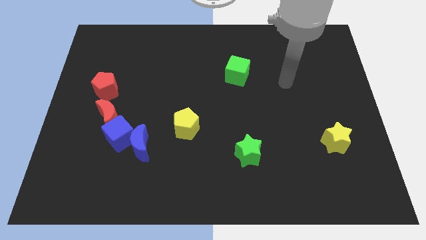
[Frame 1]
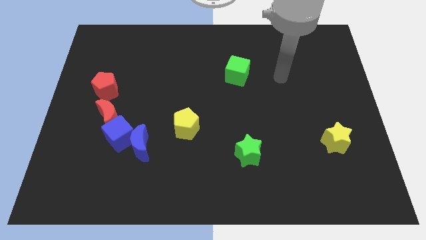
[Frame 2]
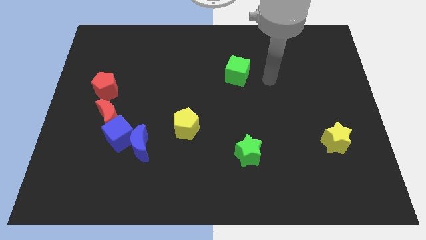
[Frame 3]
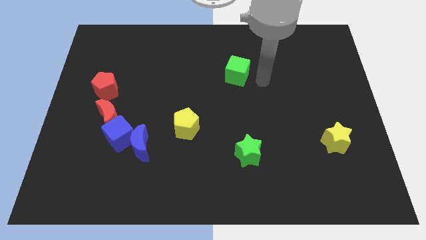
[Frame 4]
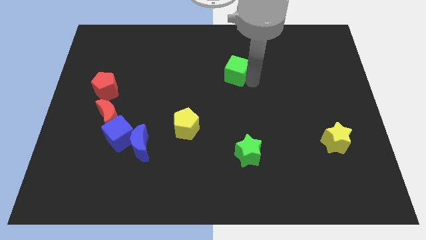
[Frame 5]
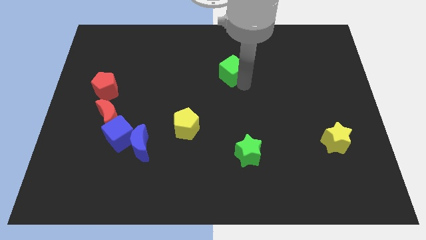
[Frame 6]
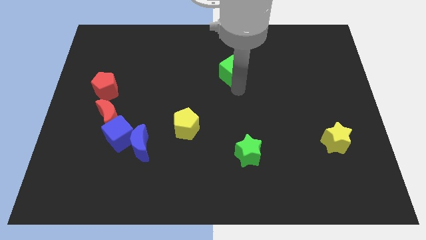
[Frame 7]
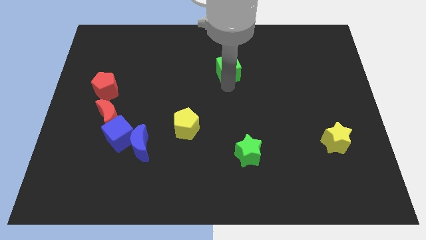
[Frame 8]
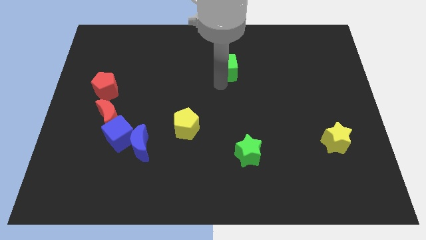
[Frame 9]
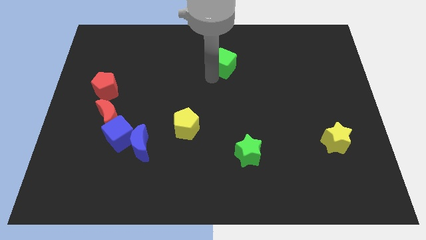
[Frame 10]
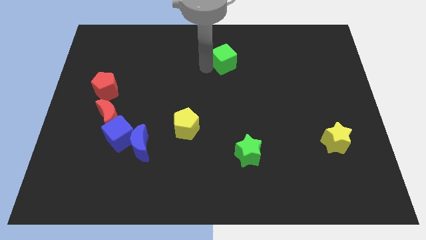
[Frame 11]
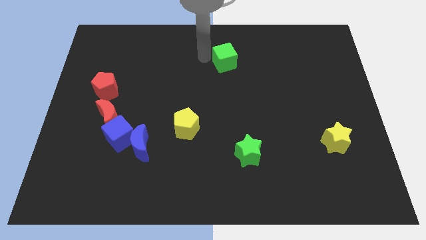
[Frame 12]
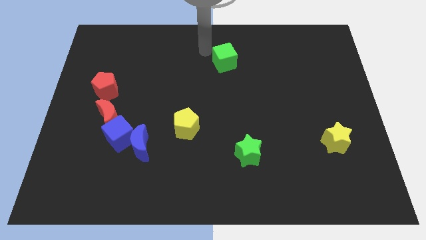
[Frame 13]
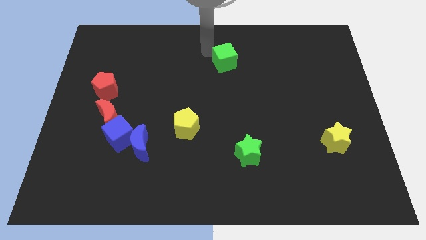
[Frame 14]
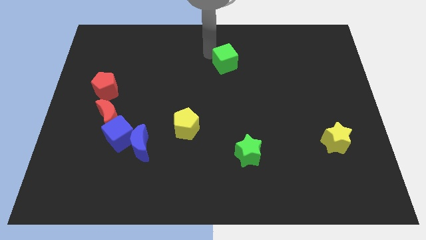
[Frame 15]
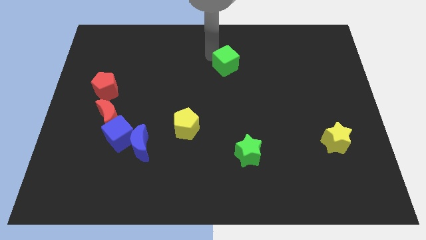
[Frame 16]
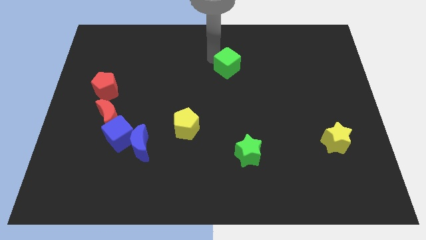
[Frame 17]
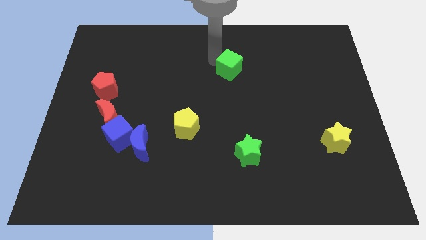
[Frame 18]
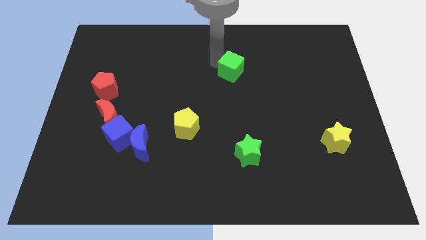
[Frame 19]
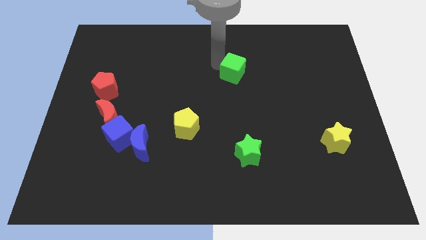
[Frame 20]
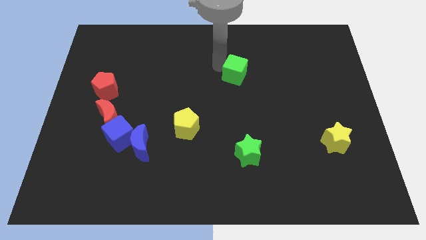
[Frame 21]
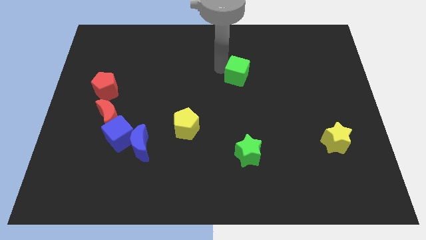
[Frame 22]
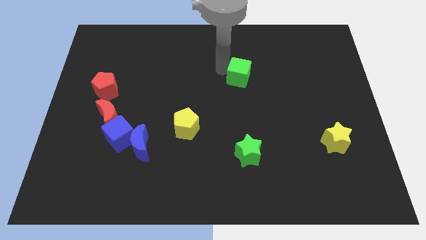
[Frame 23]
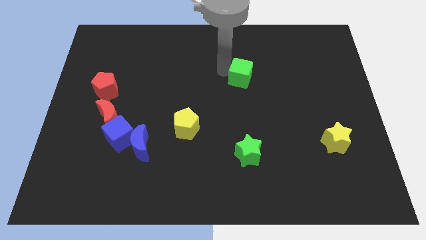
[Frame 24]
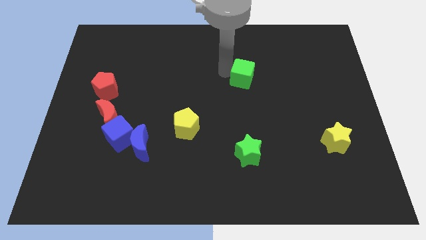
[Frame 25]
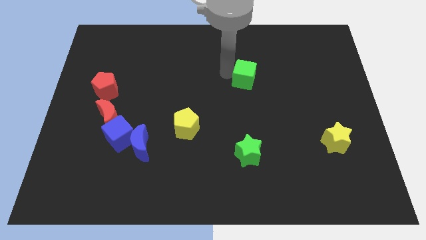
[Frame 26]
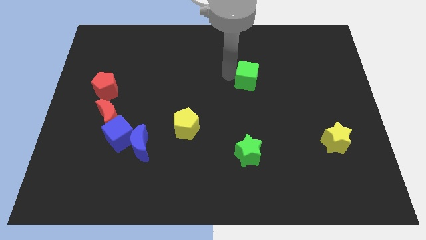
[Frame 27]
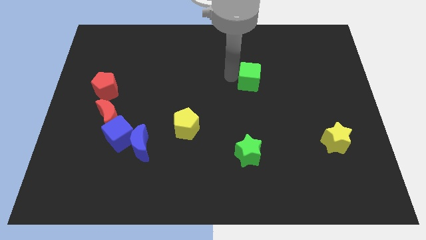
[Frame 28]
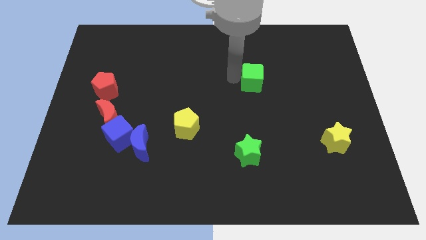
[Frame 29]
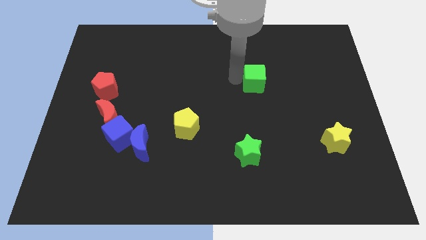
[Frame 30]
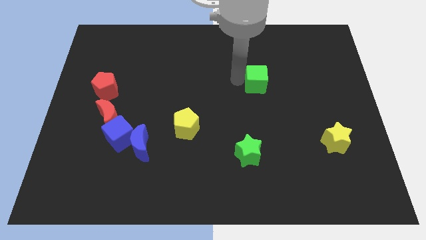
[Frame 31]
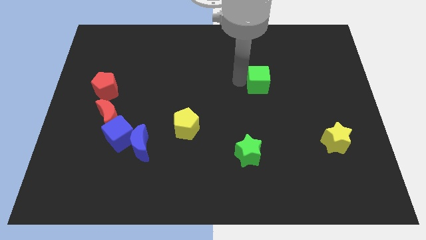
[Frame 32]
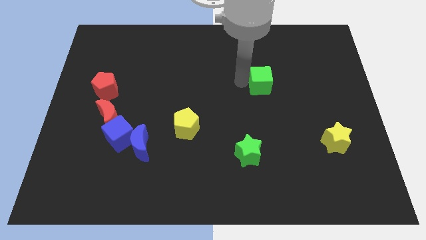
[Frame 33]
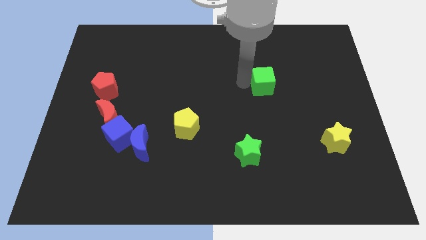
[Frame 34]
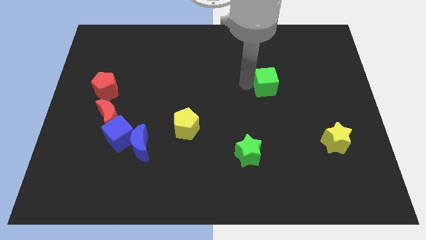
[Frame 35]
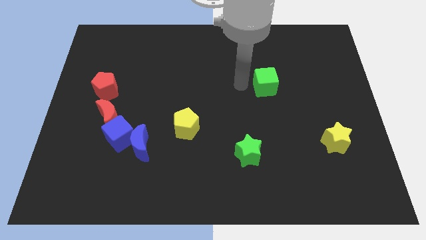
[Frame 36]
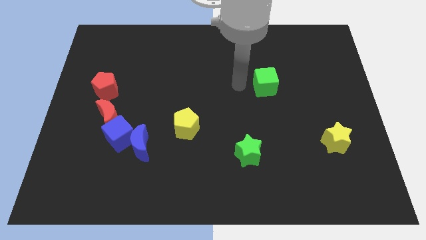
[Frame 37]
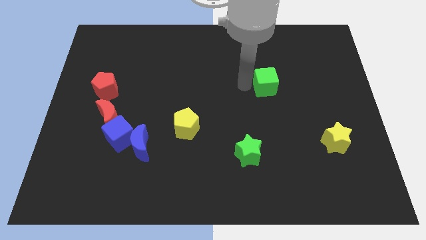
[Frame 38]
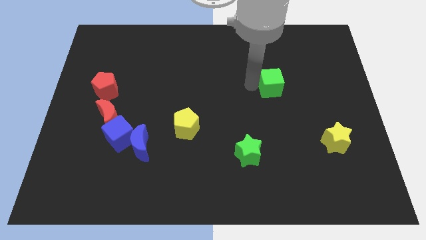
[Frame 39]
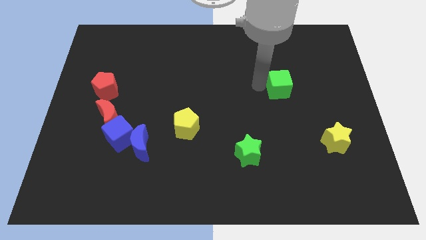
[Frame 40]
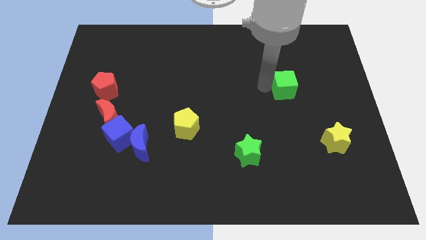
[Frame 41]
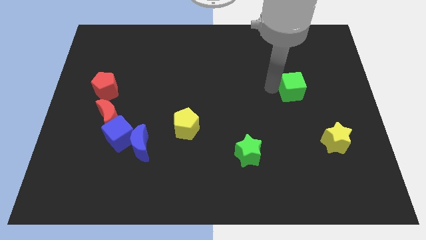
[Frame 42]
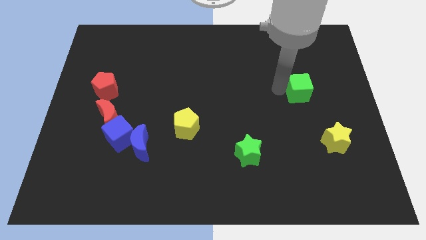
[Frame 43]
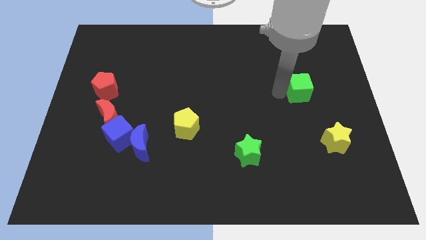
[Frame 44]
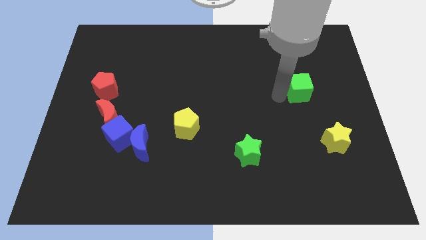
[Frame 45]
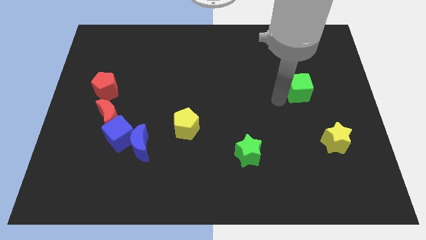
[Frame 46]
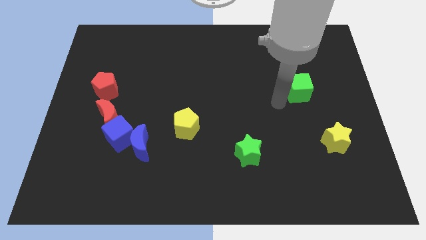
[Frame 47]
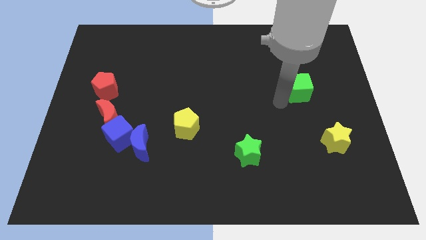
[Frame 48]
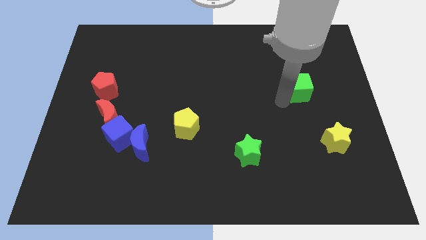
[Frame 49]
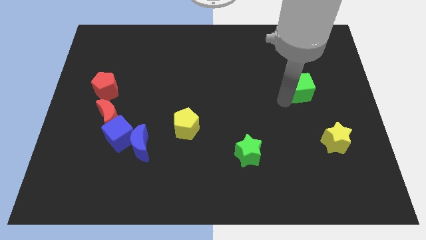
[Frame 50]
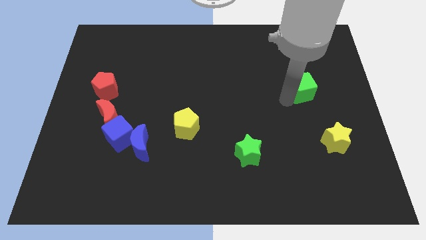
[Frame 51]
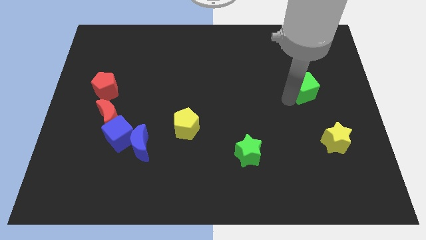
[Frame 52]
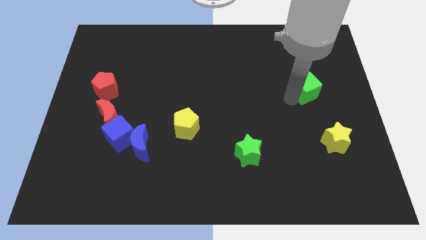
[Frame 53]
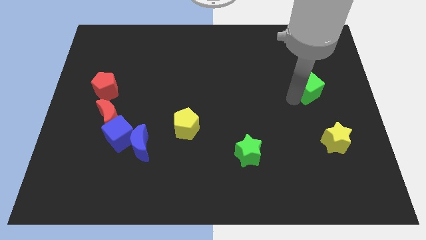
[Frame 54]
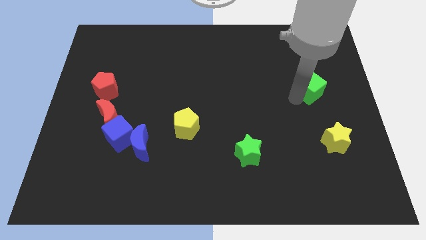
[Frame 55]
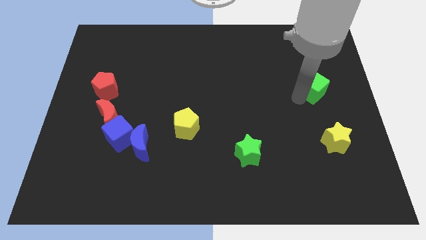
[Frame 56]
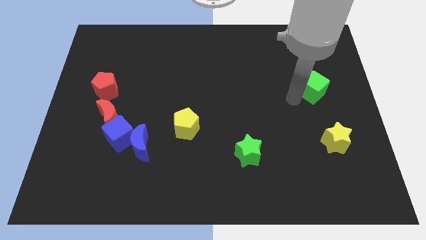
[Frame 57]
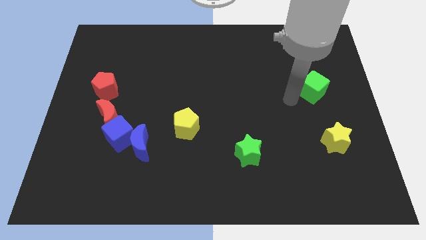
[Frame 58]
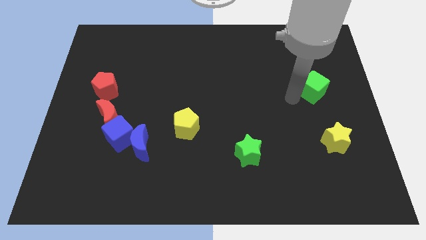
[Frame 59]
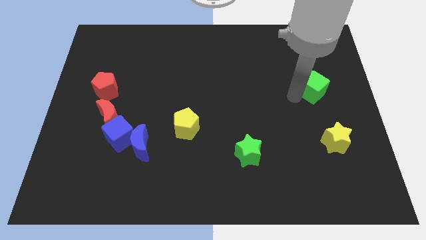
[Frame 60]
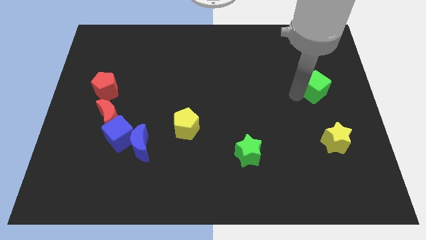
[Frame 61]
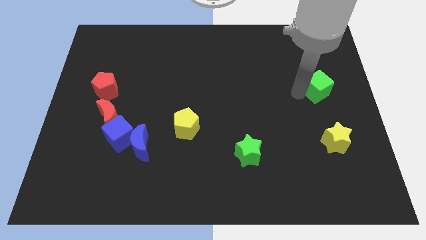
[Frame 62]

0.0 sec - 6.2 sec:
put the green cube to the right side
